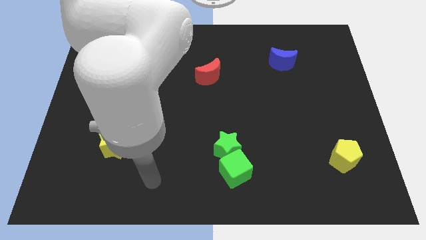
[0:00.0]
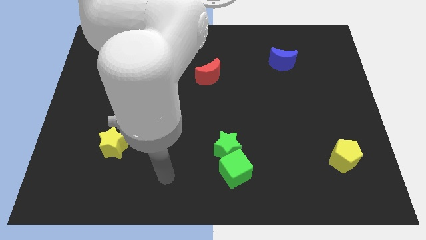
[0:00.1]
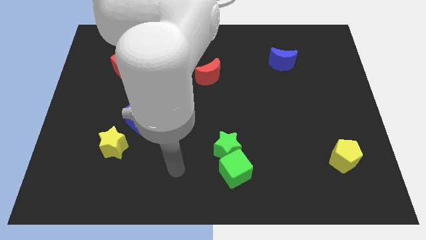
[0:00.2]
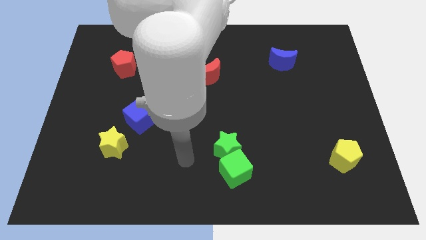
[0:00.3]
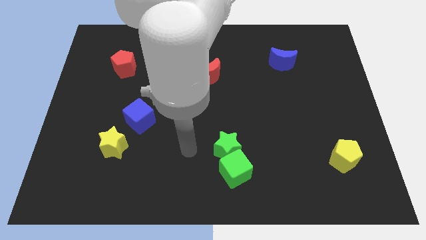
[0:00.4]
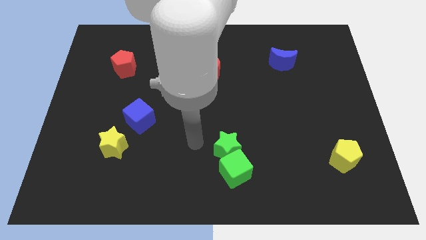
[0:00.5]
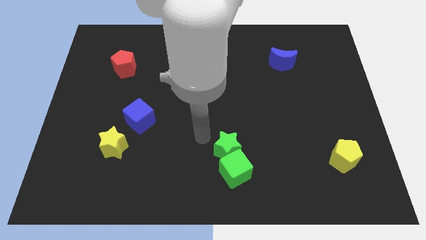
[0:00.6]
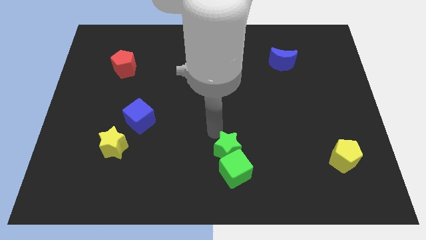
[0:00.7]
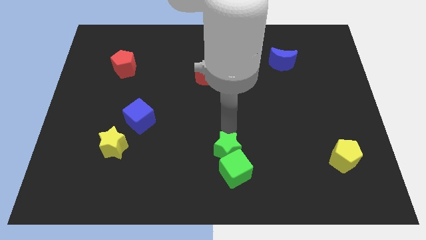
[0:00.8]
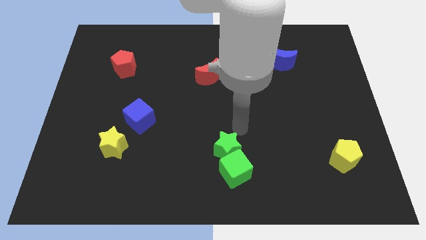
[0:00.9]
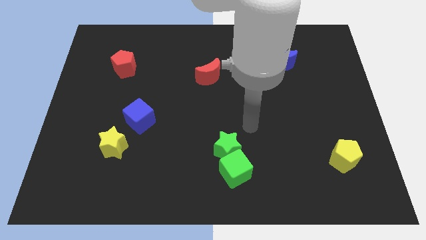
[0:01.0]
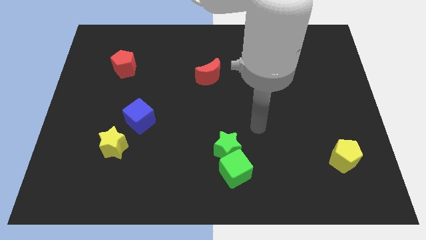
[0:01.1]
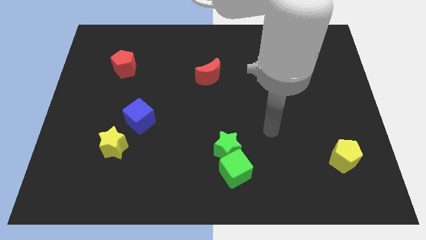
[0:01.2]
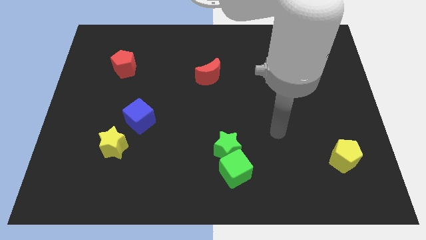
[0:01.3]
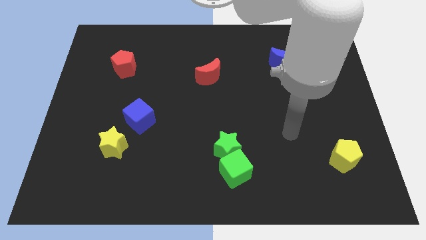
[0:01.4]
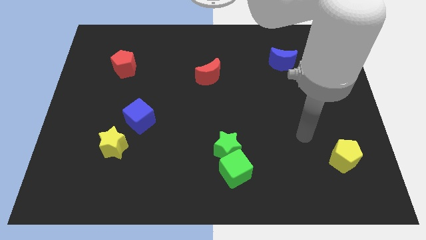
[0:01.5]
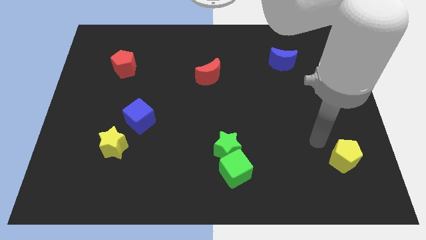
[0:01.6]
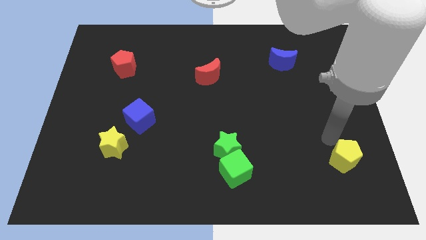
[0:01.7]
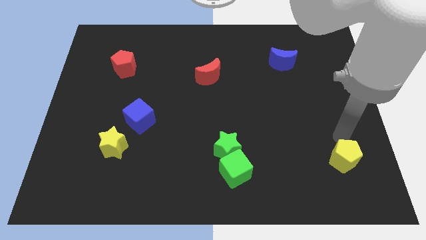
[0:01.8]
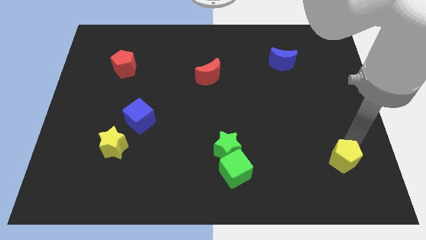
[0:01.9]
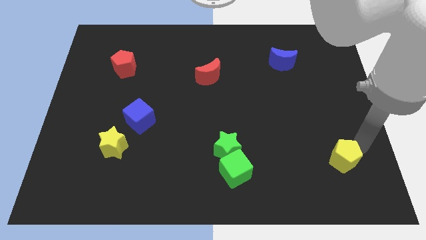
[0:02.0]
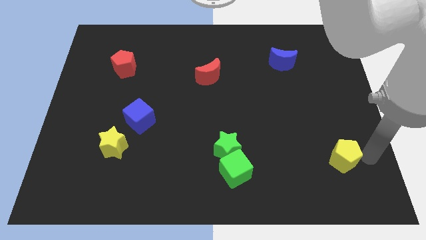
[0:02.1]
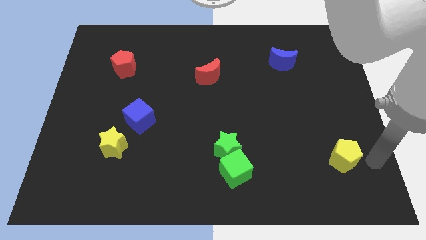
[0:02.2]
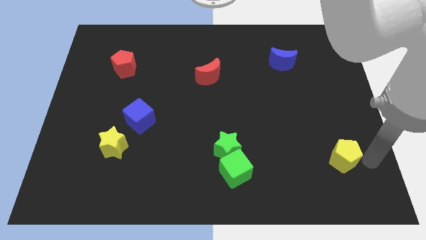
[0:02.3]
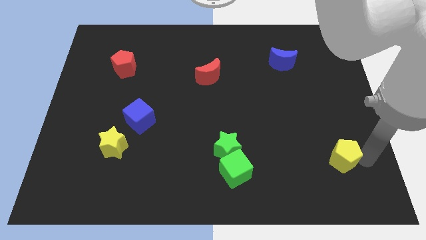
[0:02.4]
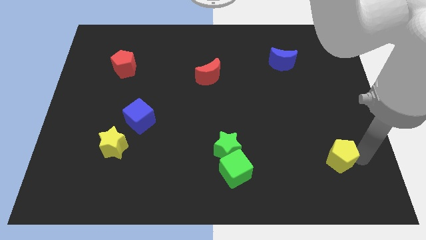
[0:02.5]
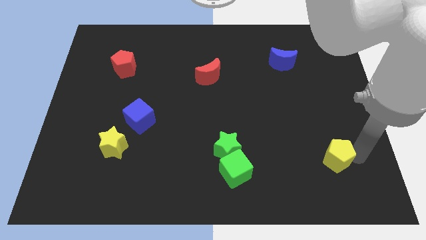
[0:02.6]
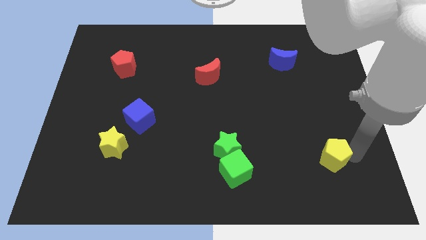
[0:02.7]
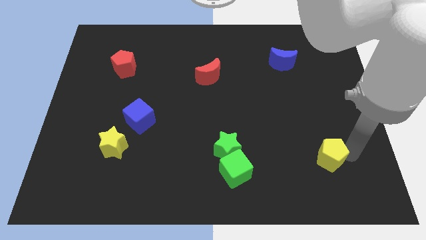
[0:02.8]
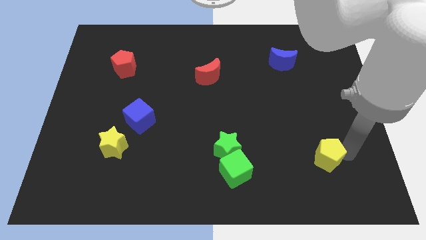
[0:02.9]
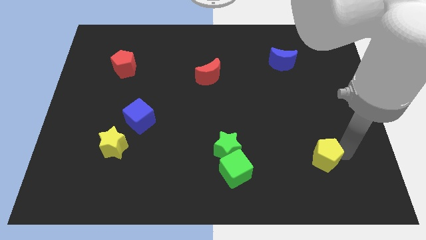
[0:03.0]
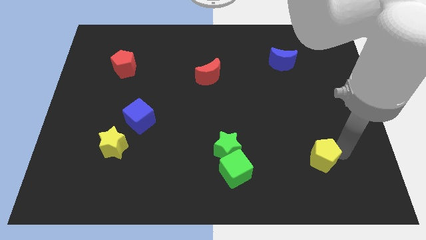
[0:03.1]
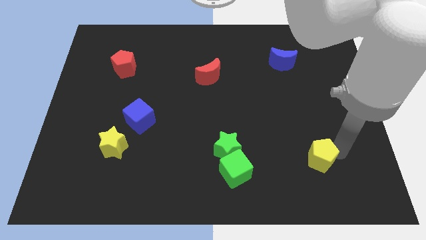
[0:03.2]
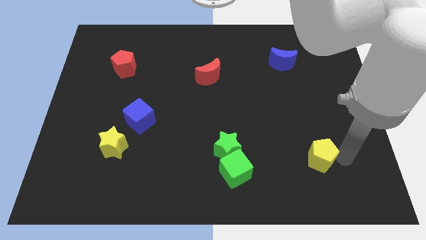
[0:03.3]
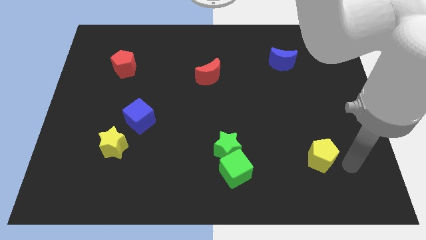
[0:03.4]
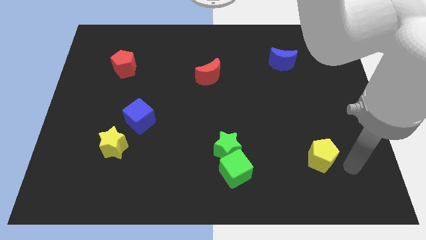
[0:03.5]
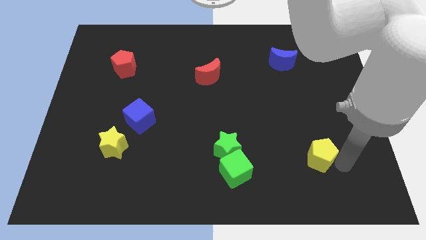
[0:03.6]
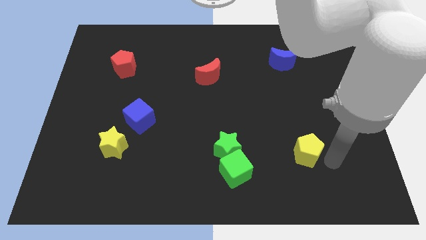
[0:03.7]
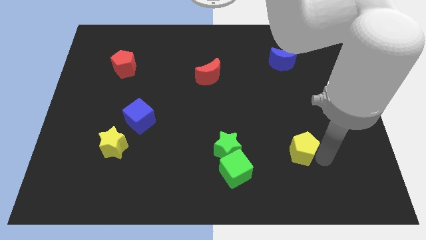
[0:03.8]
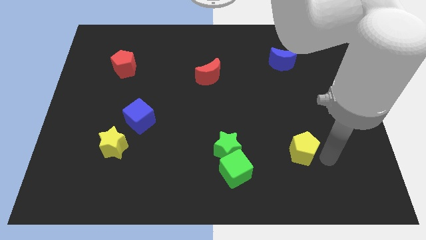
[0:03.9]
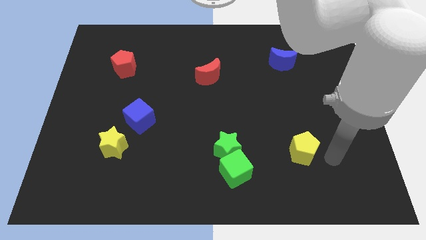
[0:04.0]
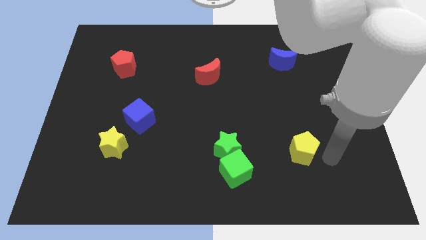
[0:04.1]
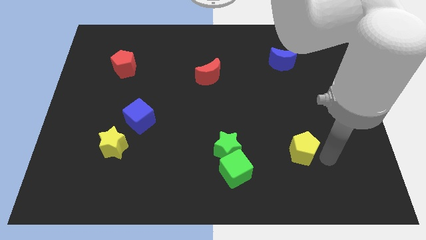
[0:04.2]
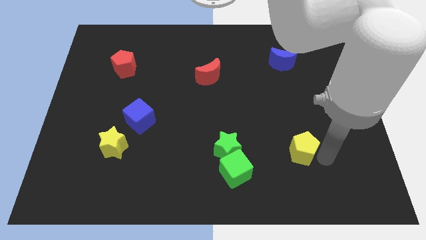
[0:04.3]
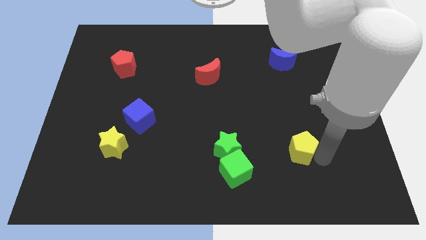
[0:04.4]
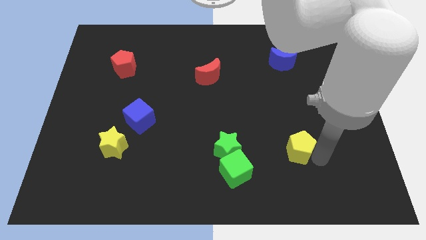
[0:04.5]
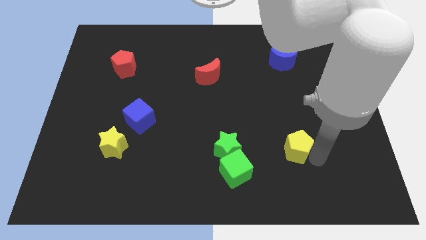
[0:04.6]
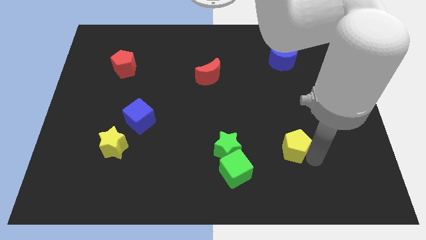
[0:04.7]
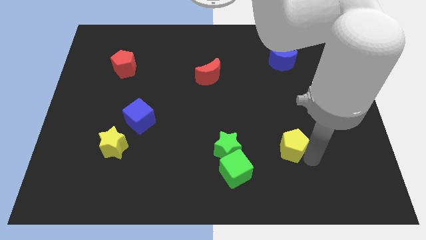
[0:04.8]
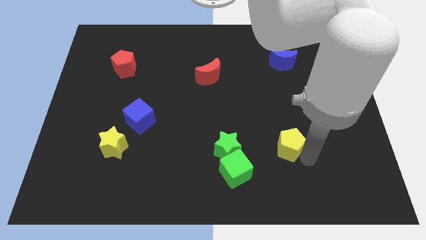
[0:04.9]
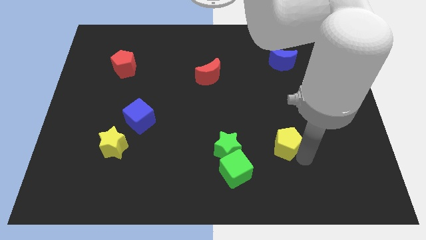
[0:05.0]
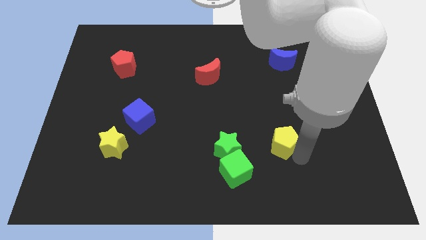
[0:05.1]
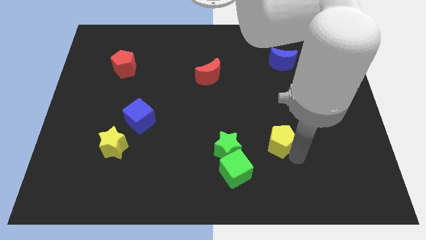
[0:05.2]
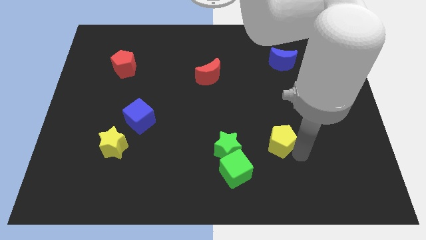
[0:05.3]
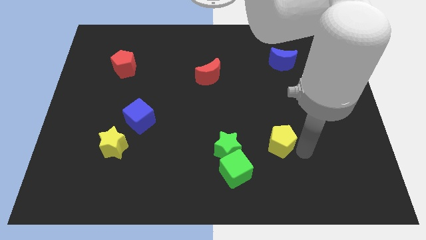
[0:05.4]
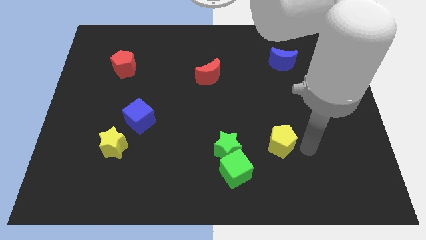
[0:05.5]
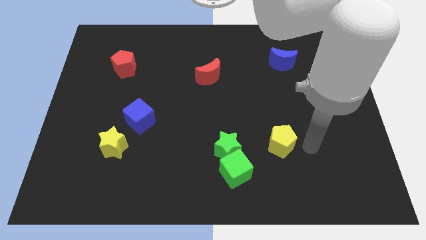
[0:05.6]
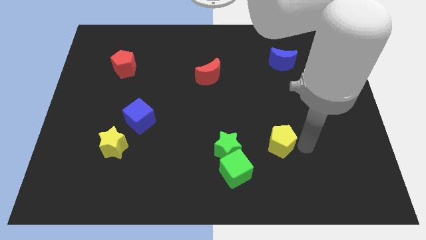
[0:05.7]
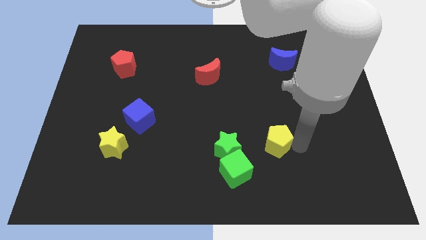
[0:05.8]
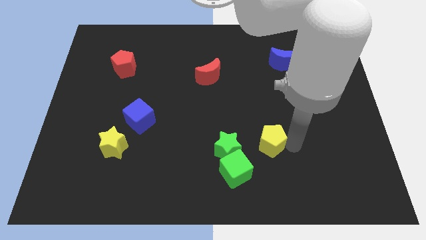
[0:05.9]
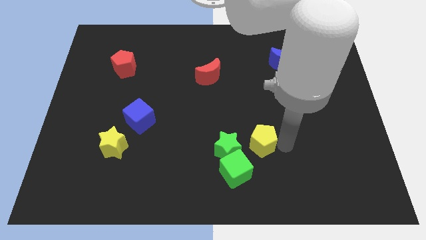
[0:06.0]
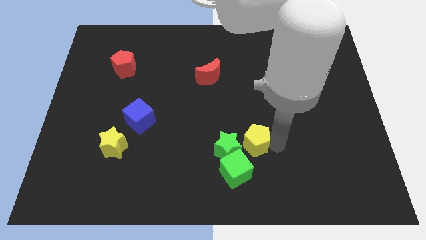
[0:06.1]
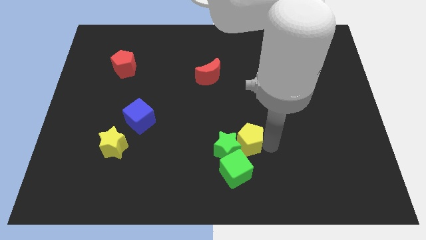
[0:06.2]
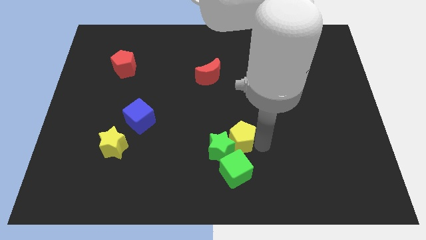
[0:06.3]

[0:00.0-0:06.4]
slide the yellow pentagon to the left

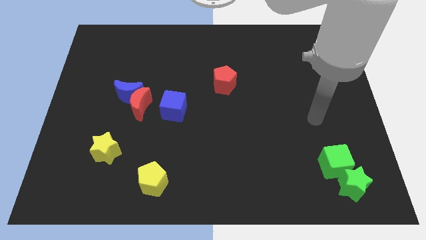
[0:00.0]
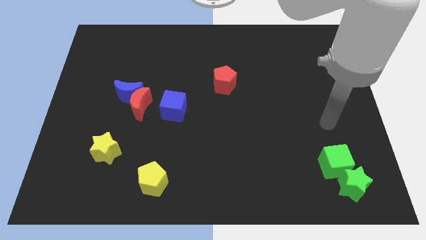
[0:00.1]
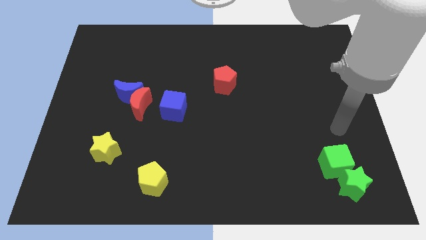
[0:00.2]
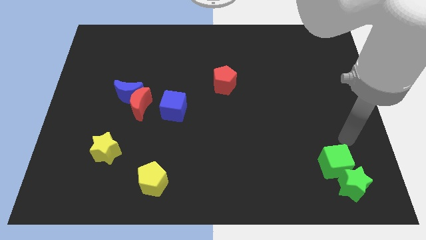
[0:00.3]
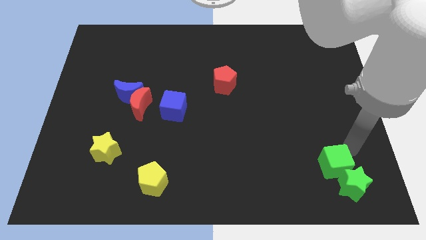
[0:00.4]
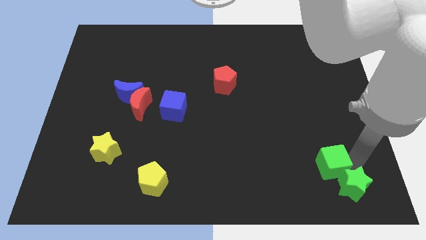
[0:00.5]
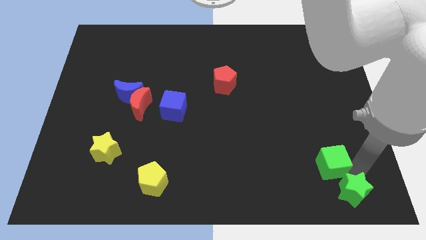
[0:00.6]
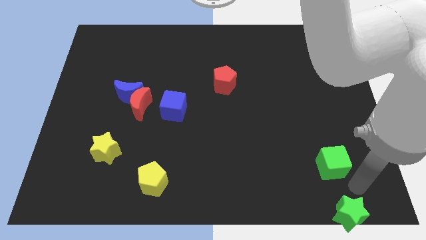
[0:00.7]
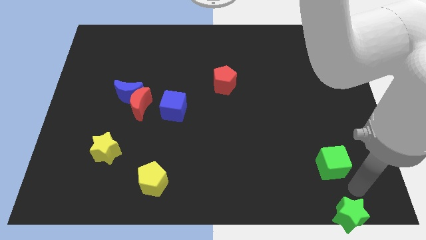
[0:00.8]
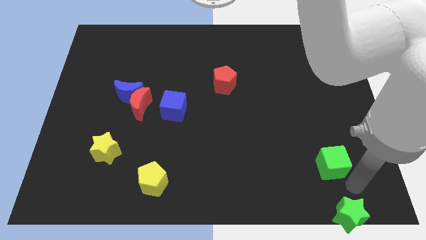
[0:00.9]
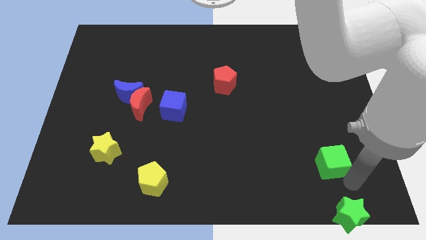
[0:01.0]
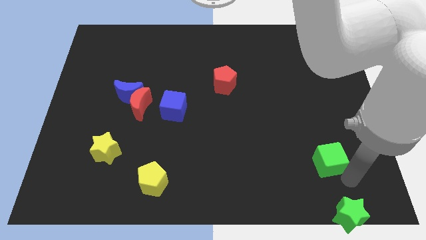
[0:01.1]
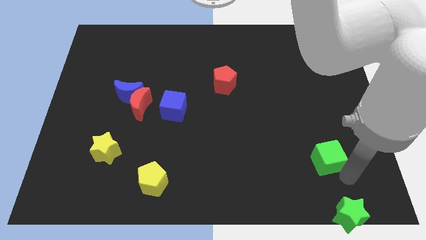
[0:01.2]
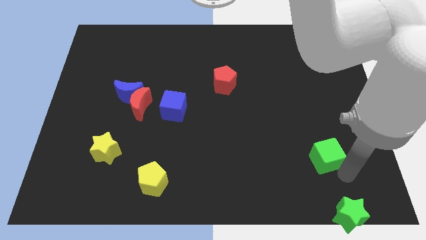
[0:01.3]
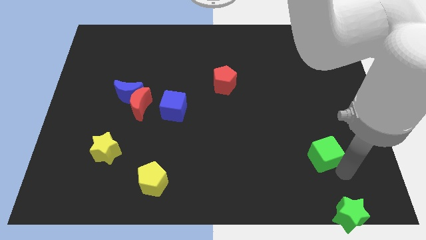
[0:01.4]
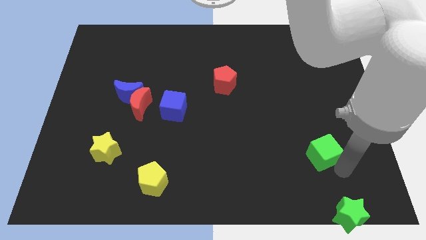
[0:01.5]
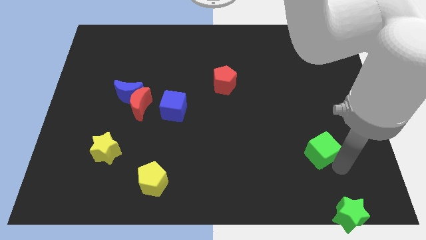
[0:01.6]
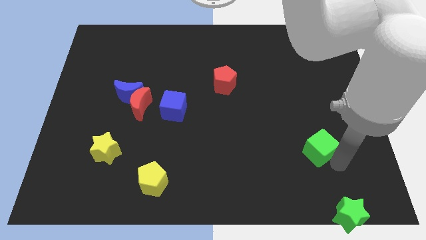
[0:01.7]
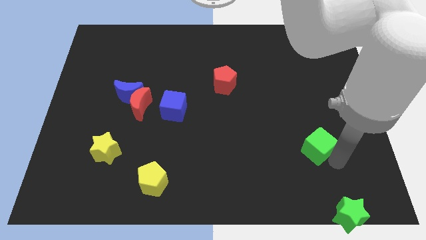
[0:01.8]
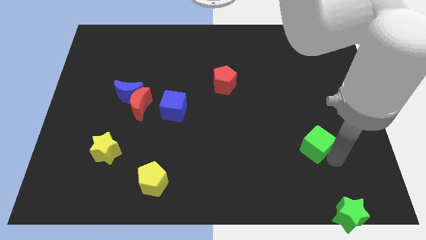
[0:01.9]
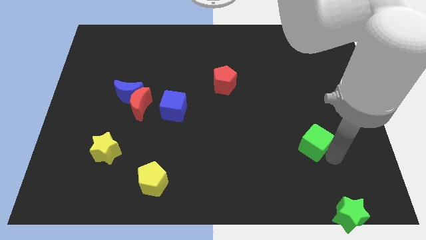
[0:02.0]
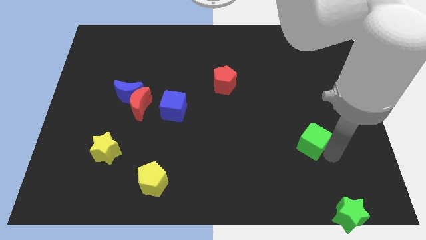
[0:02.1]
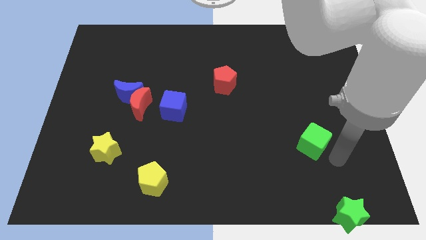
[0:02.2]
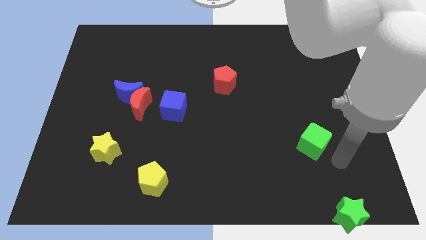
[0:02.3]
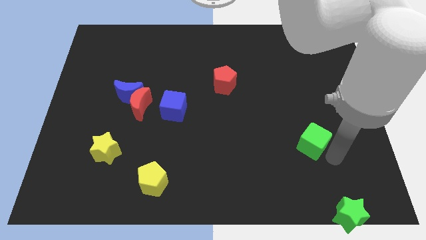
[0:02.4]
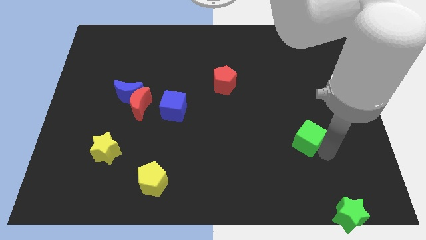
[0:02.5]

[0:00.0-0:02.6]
slide the green cube upwards and left somewhat
